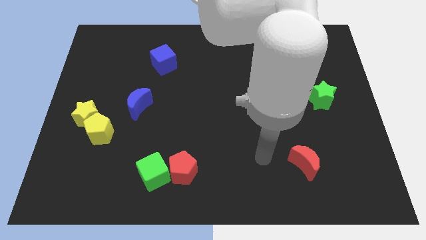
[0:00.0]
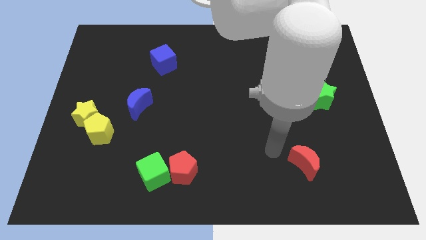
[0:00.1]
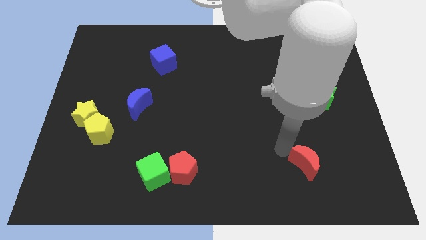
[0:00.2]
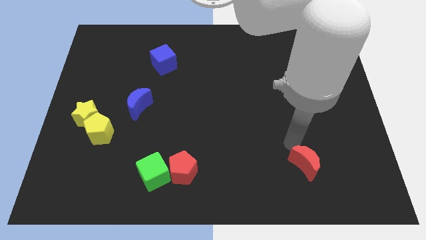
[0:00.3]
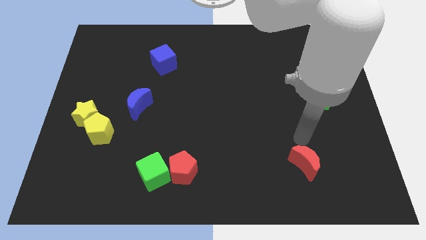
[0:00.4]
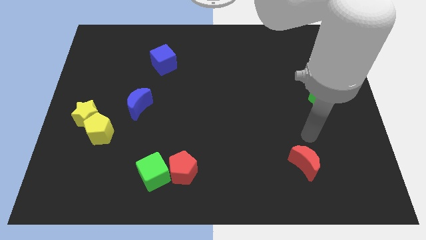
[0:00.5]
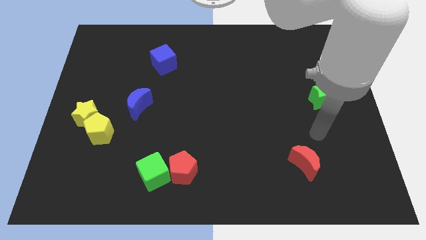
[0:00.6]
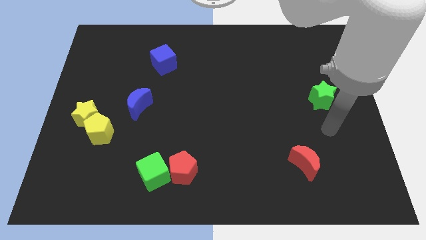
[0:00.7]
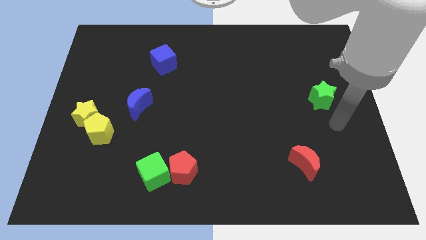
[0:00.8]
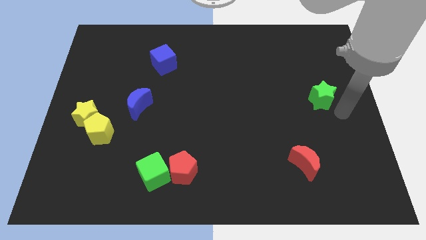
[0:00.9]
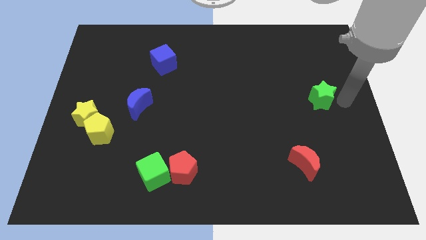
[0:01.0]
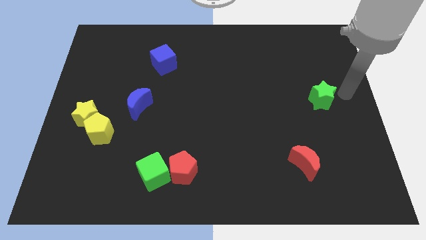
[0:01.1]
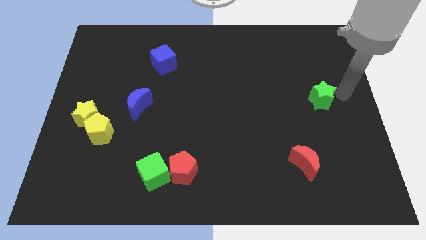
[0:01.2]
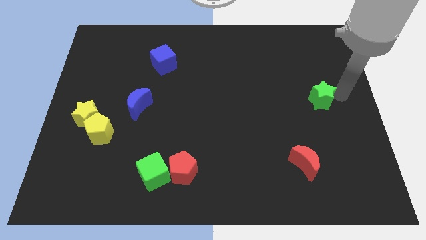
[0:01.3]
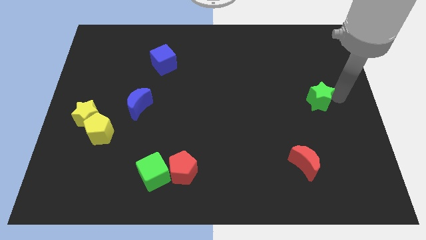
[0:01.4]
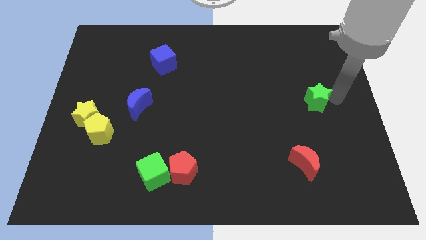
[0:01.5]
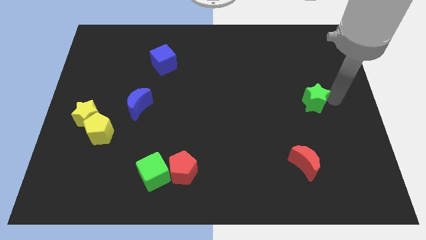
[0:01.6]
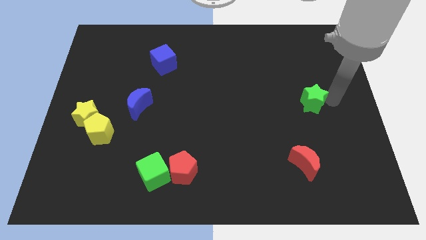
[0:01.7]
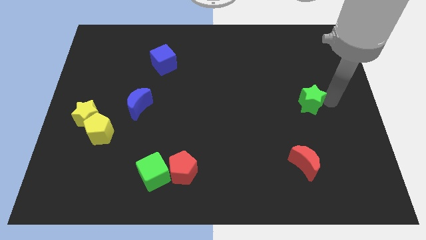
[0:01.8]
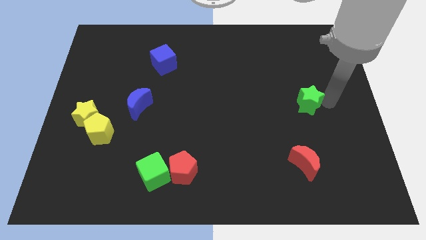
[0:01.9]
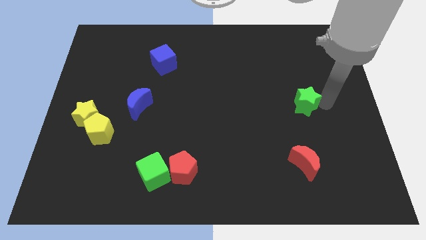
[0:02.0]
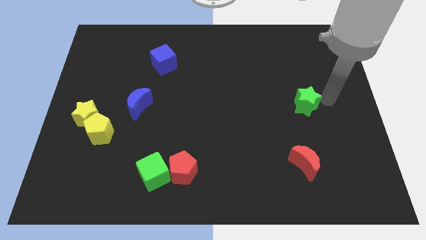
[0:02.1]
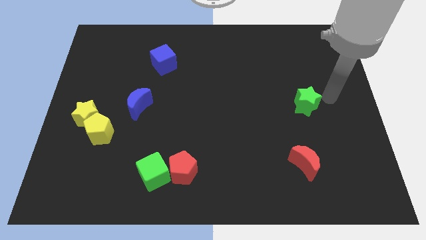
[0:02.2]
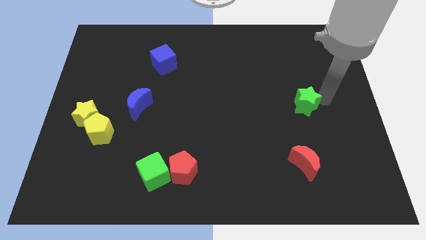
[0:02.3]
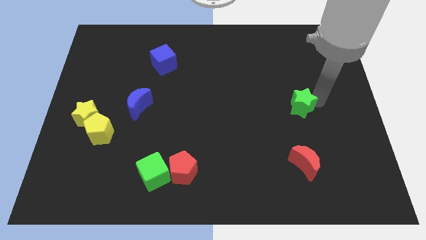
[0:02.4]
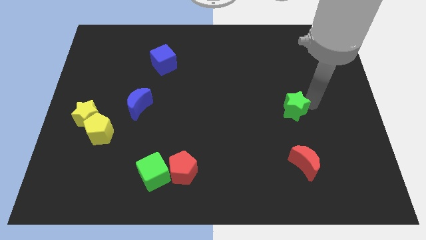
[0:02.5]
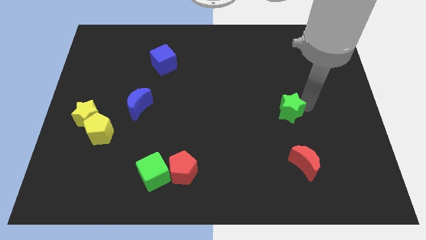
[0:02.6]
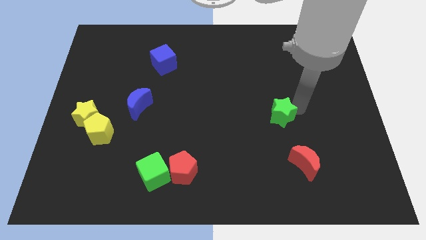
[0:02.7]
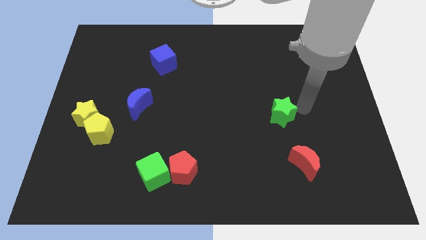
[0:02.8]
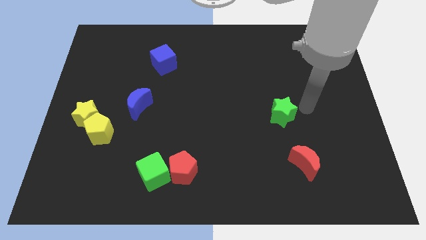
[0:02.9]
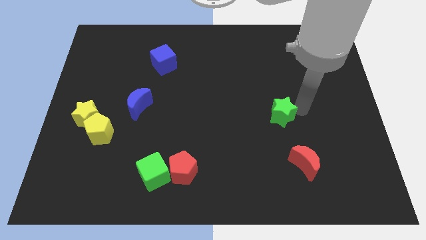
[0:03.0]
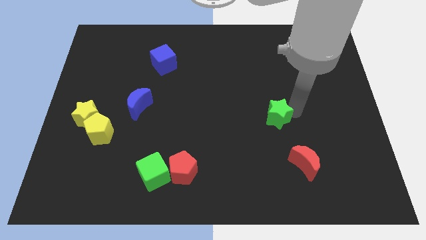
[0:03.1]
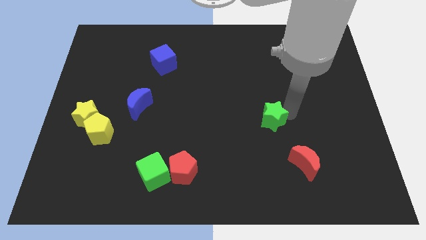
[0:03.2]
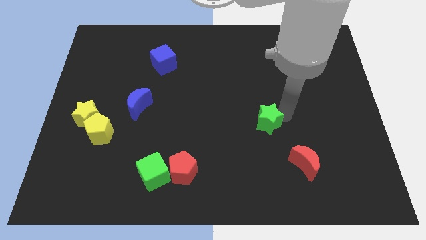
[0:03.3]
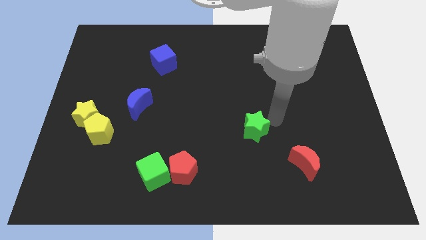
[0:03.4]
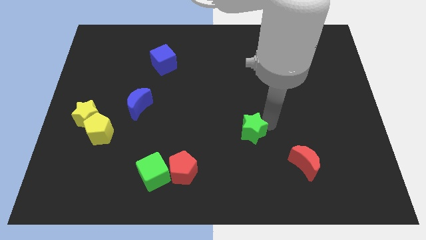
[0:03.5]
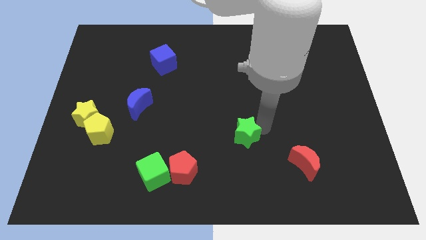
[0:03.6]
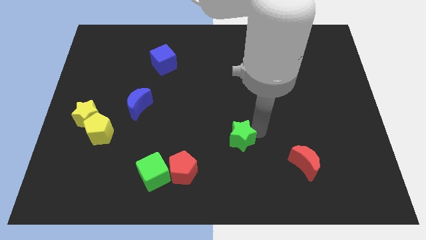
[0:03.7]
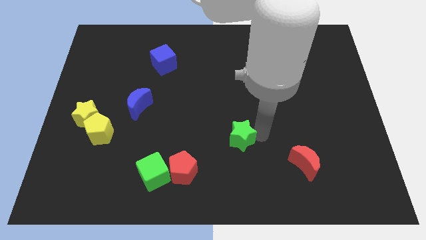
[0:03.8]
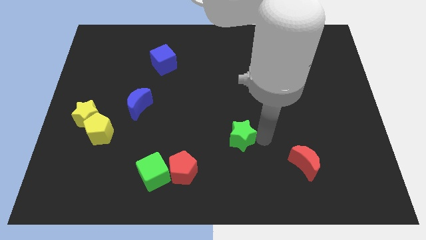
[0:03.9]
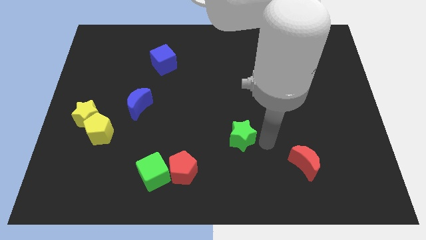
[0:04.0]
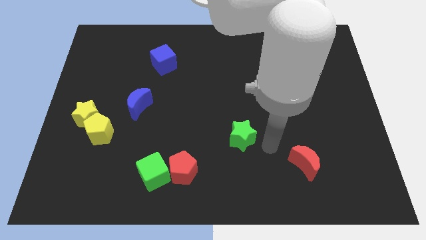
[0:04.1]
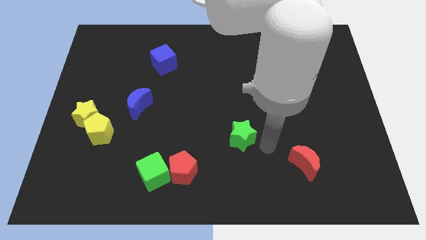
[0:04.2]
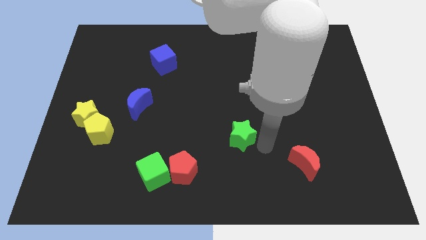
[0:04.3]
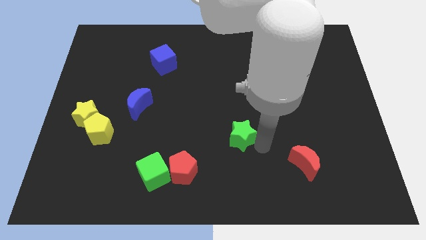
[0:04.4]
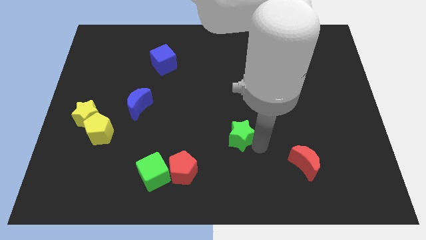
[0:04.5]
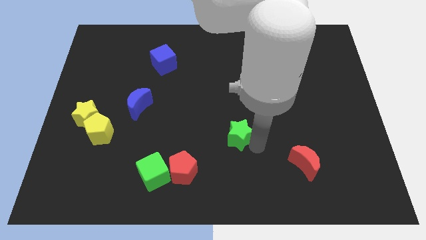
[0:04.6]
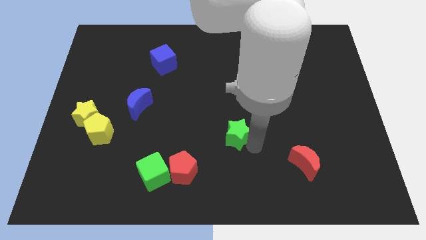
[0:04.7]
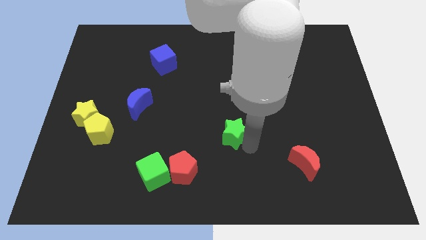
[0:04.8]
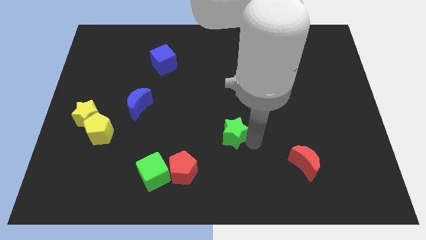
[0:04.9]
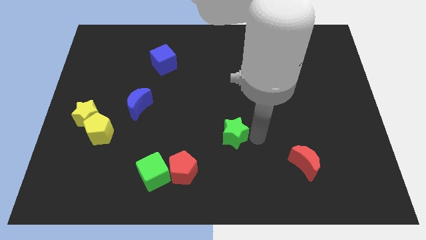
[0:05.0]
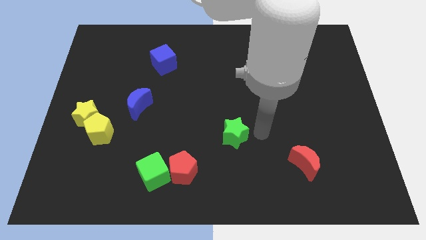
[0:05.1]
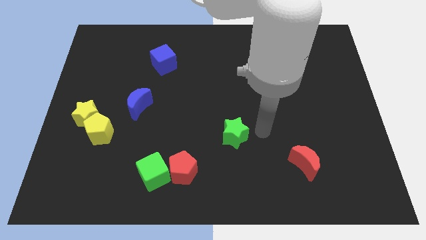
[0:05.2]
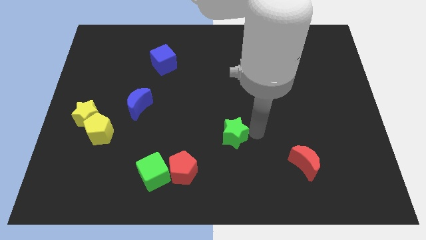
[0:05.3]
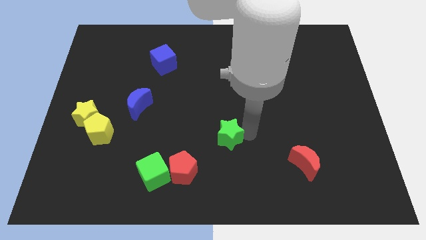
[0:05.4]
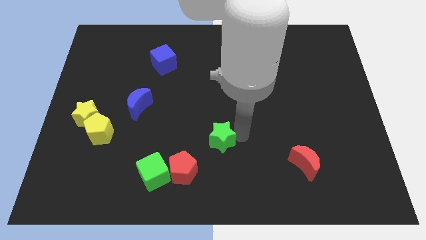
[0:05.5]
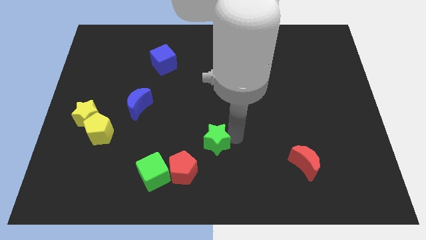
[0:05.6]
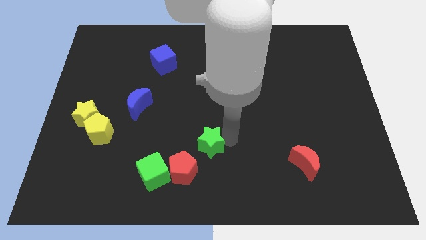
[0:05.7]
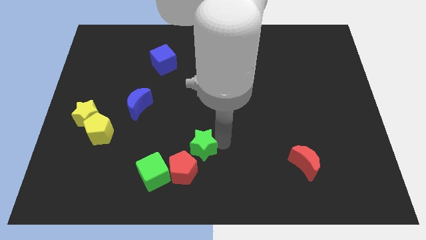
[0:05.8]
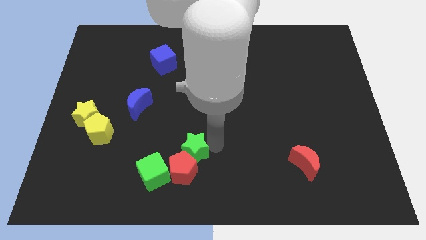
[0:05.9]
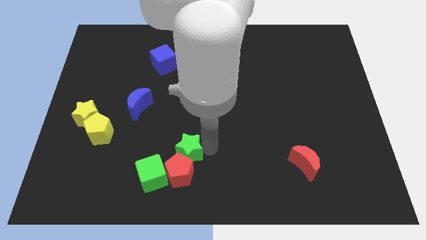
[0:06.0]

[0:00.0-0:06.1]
move the green star diagonally up and to the left of the red pentagon

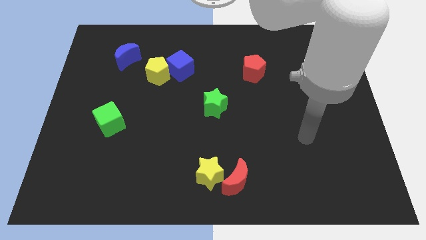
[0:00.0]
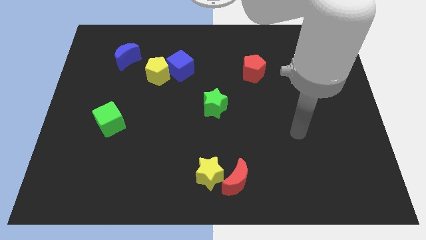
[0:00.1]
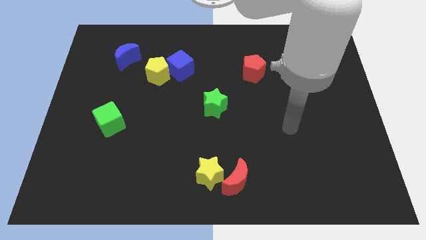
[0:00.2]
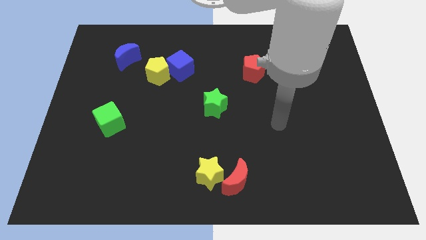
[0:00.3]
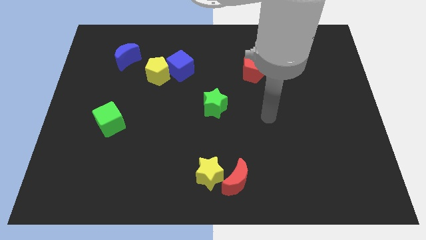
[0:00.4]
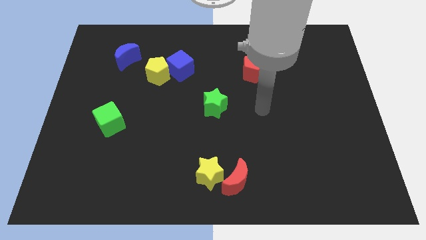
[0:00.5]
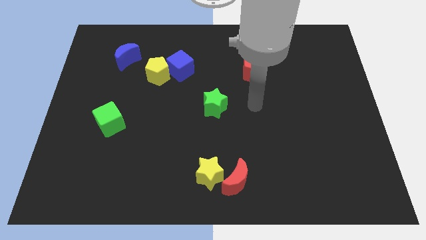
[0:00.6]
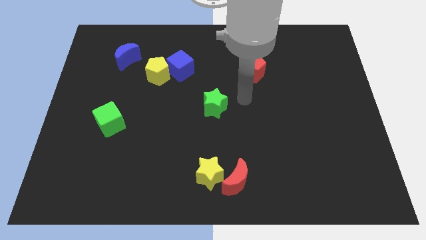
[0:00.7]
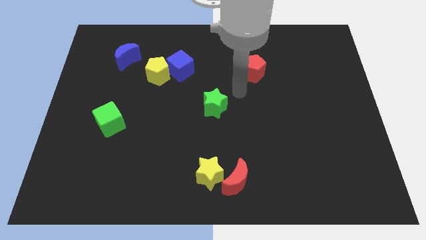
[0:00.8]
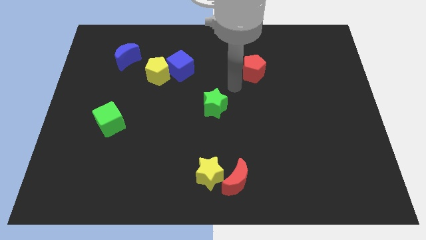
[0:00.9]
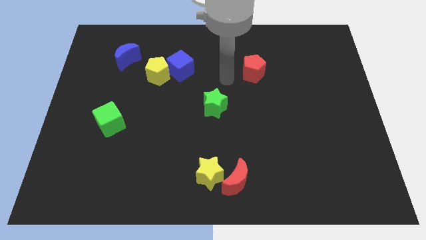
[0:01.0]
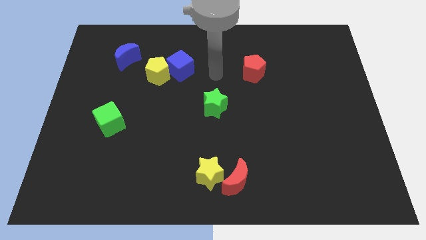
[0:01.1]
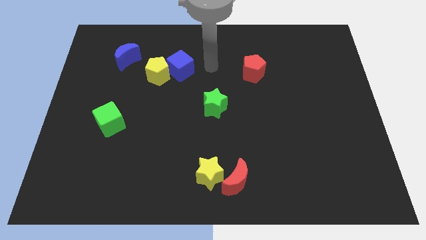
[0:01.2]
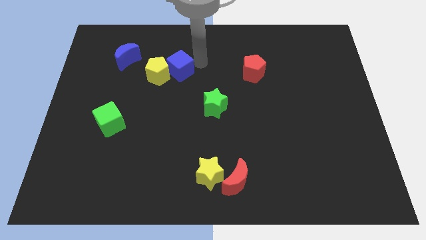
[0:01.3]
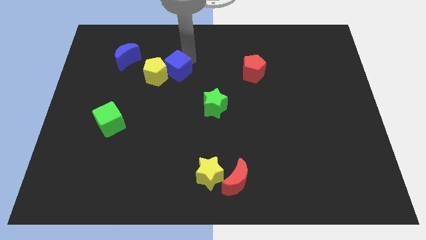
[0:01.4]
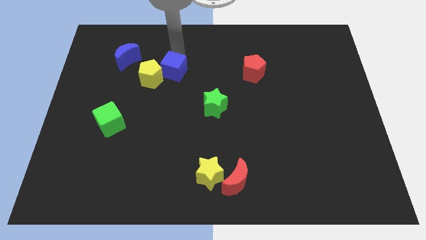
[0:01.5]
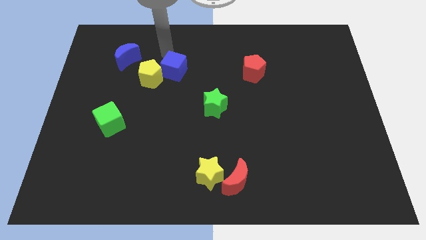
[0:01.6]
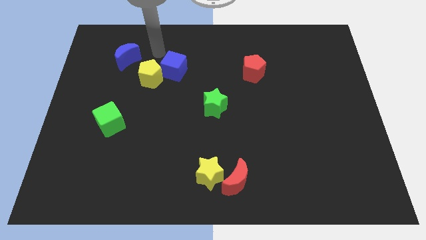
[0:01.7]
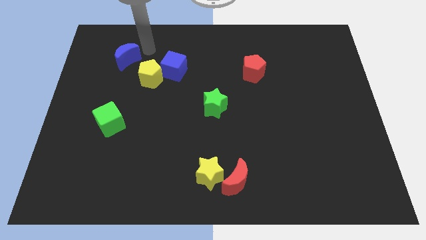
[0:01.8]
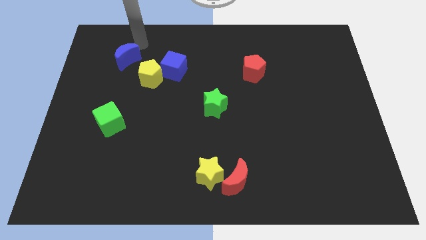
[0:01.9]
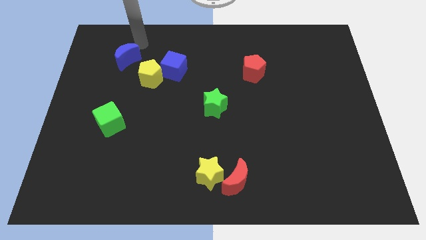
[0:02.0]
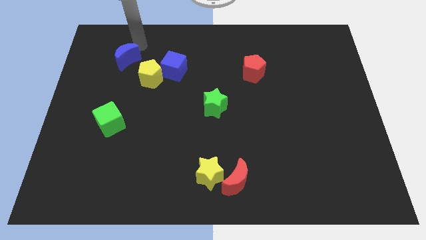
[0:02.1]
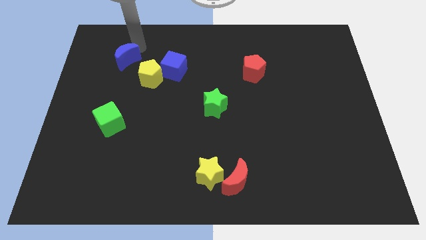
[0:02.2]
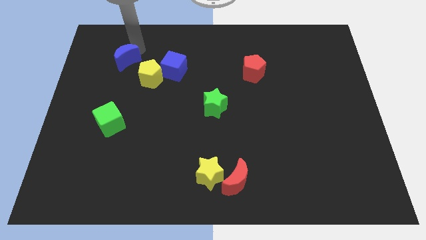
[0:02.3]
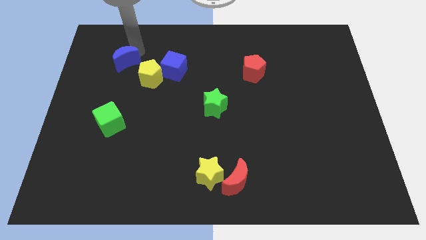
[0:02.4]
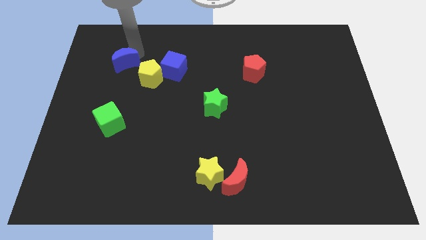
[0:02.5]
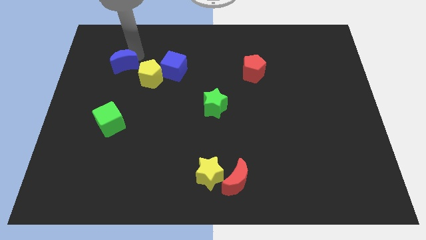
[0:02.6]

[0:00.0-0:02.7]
put the blue moon to the left of the yellow pentagon
